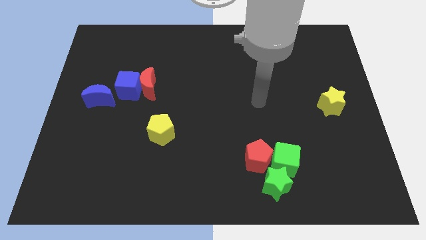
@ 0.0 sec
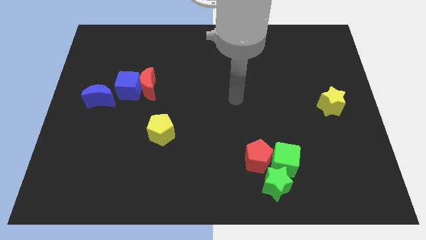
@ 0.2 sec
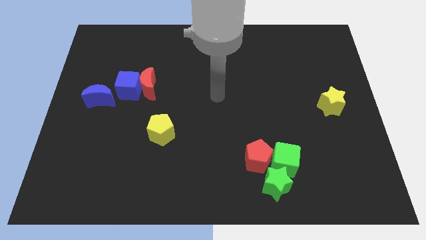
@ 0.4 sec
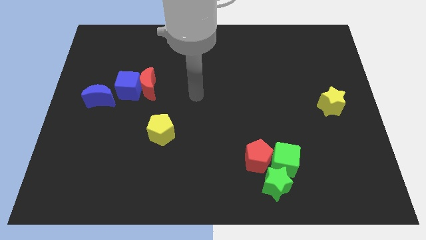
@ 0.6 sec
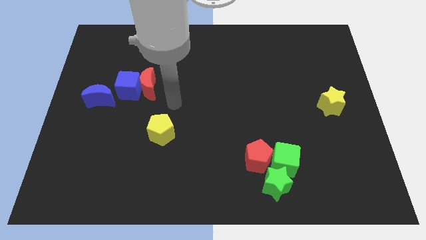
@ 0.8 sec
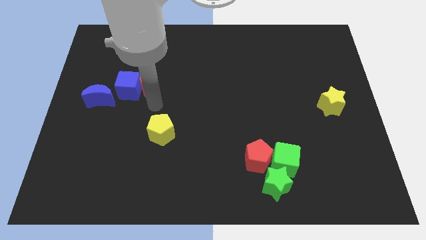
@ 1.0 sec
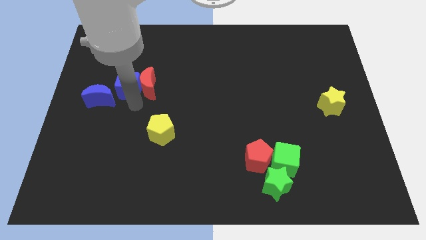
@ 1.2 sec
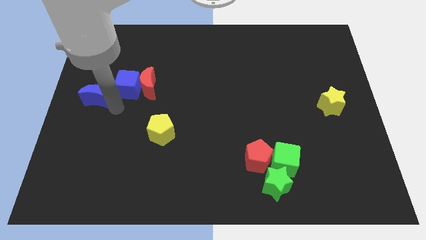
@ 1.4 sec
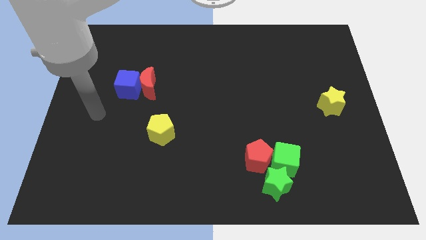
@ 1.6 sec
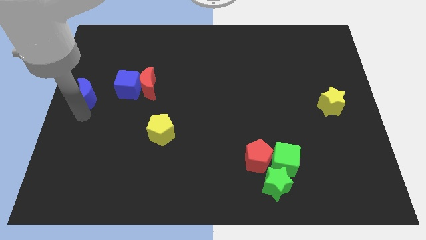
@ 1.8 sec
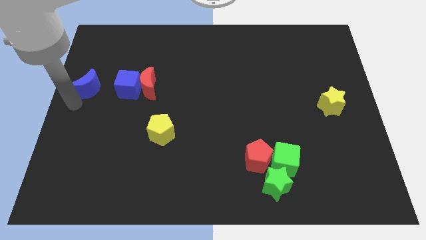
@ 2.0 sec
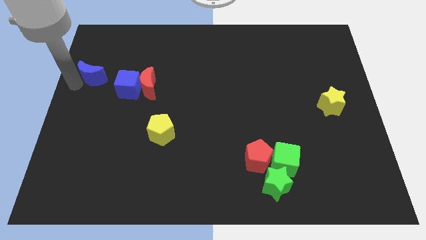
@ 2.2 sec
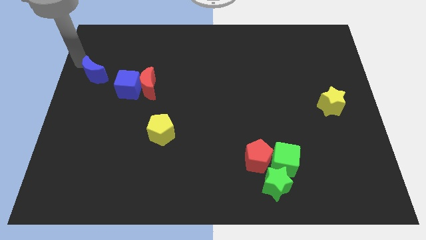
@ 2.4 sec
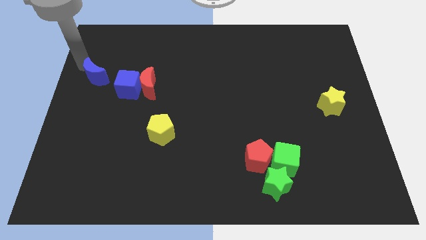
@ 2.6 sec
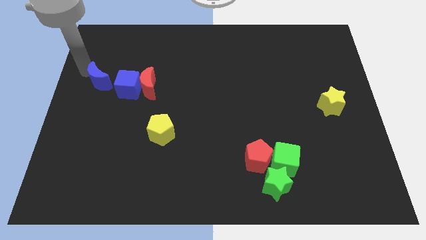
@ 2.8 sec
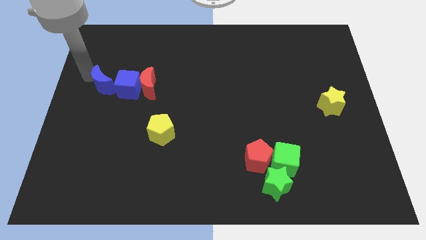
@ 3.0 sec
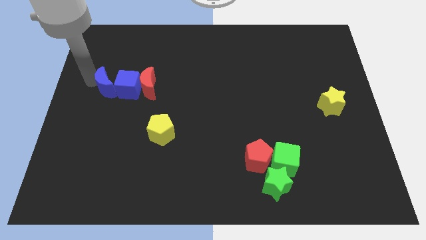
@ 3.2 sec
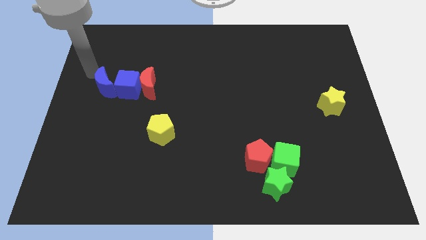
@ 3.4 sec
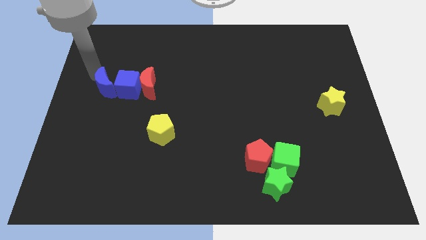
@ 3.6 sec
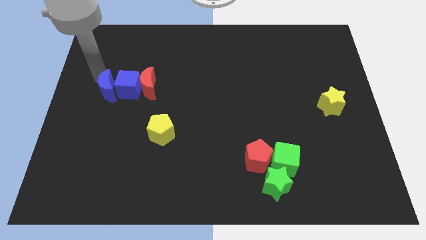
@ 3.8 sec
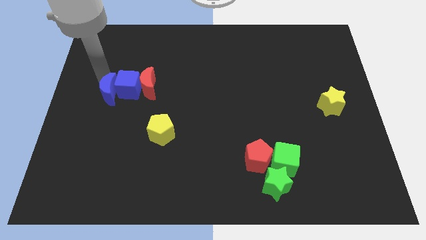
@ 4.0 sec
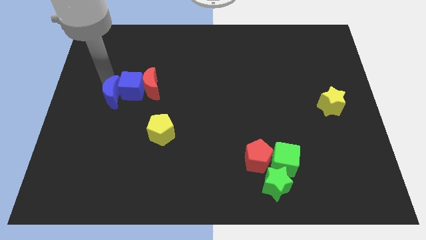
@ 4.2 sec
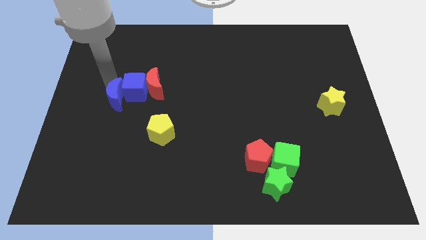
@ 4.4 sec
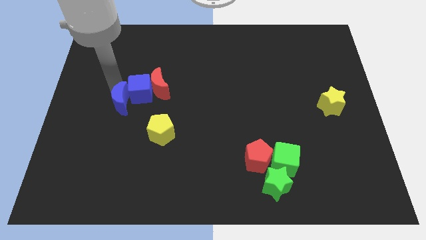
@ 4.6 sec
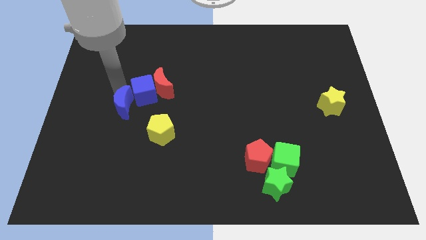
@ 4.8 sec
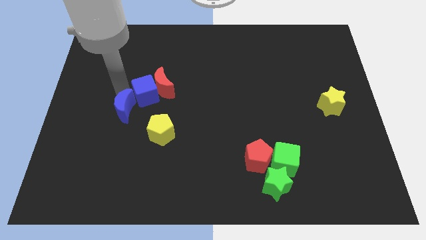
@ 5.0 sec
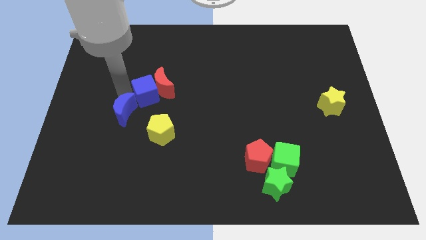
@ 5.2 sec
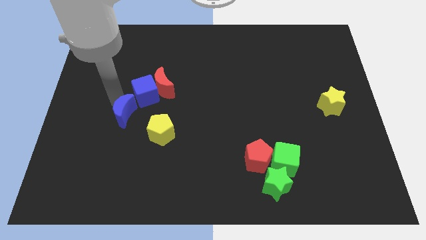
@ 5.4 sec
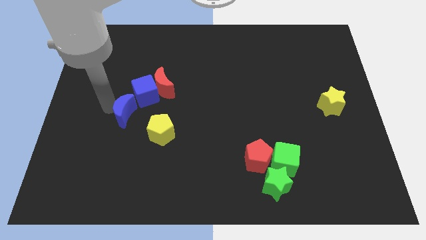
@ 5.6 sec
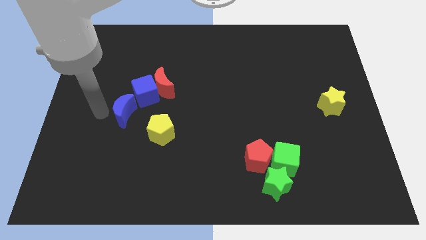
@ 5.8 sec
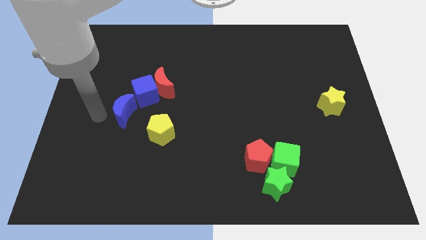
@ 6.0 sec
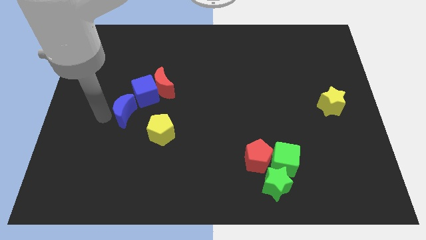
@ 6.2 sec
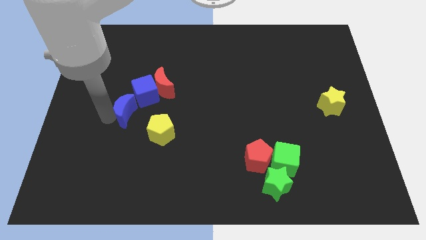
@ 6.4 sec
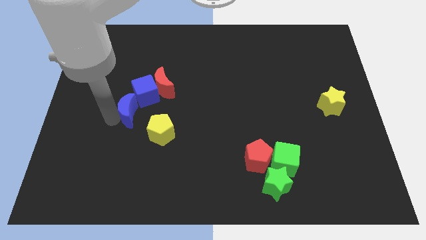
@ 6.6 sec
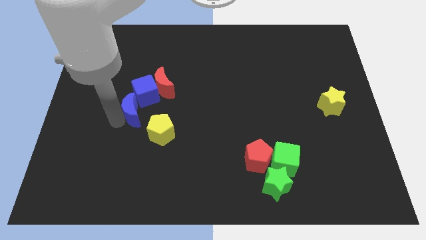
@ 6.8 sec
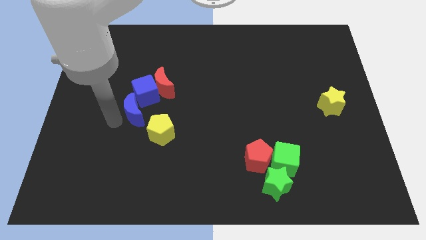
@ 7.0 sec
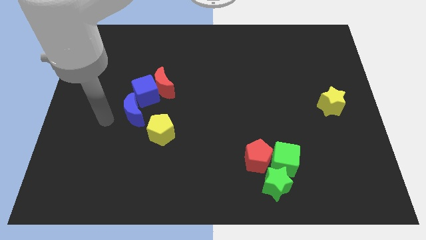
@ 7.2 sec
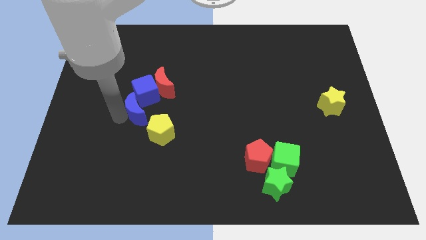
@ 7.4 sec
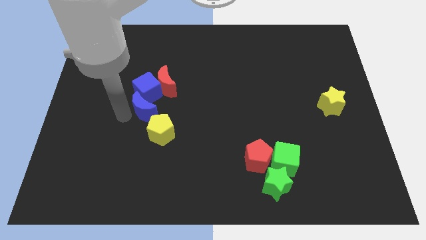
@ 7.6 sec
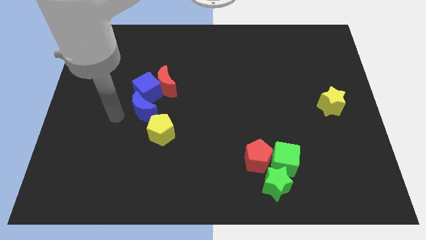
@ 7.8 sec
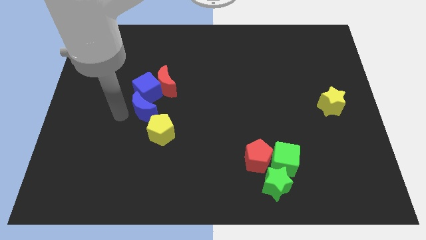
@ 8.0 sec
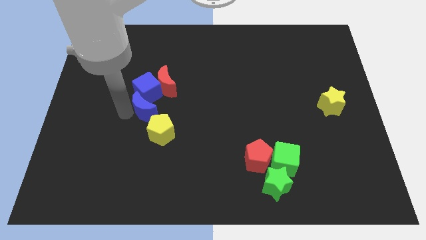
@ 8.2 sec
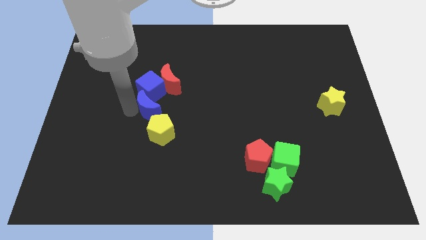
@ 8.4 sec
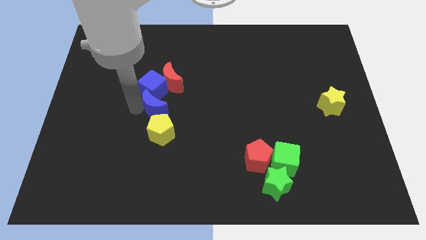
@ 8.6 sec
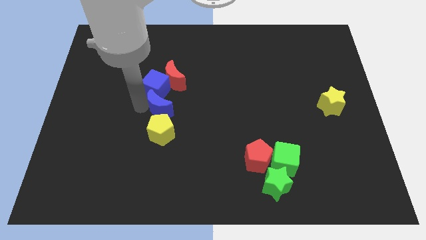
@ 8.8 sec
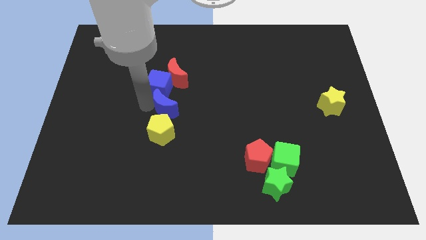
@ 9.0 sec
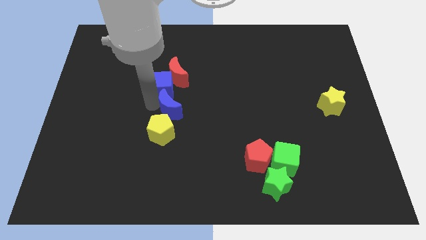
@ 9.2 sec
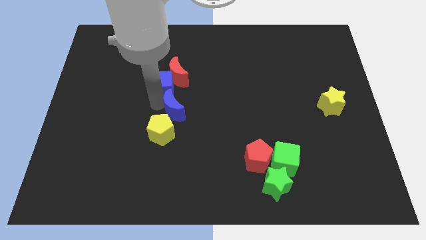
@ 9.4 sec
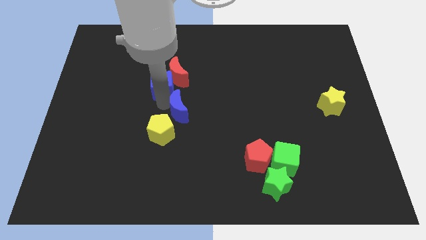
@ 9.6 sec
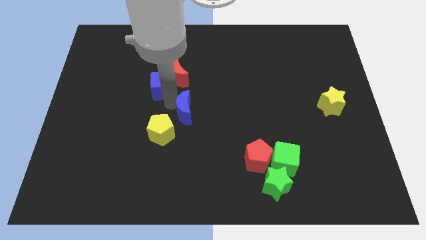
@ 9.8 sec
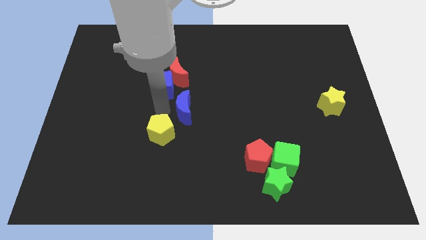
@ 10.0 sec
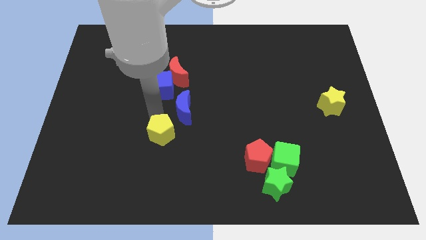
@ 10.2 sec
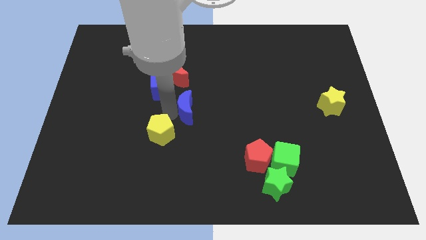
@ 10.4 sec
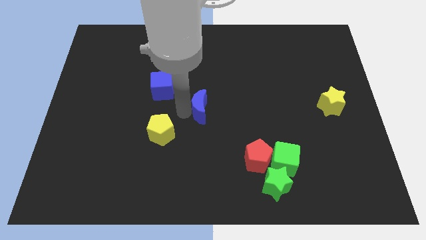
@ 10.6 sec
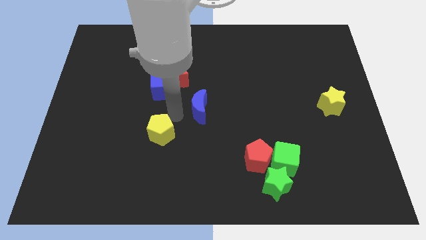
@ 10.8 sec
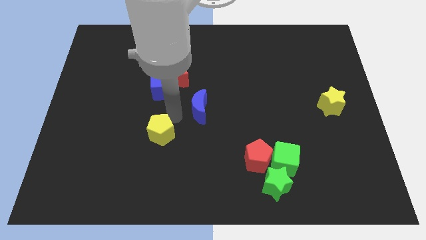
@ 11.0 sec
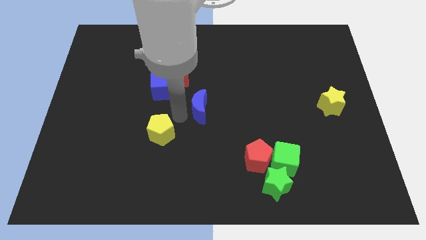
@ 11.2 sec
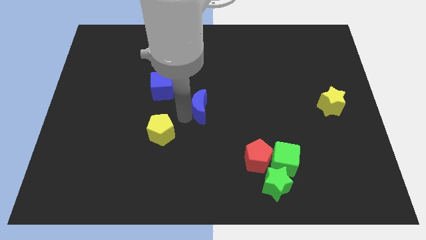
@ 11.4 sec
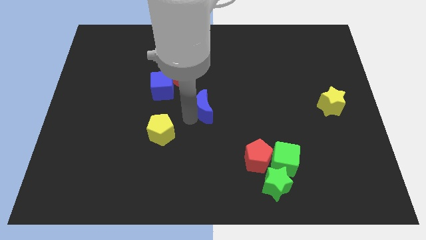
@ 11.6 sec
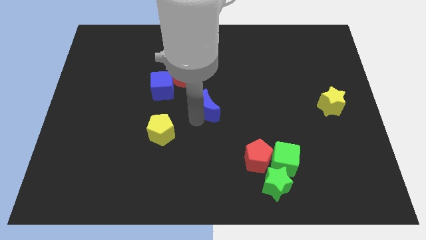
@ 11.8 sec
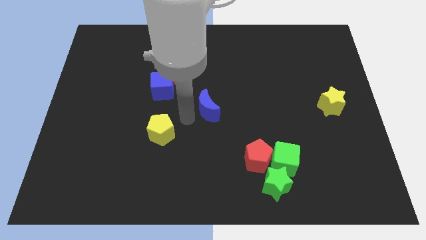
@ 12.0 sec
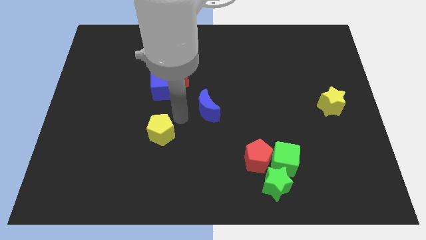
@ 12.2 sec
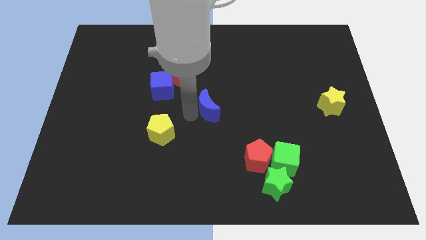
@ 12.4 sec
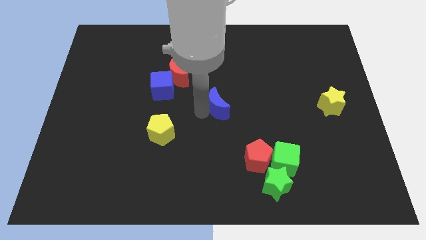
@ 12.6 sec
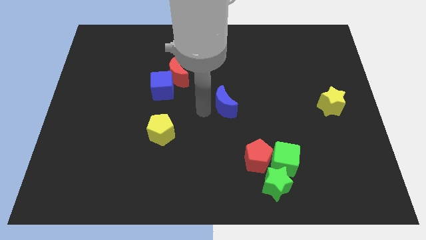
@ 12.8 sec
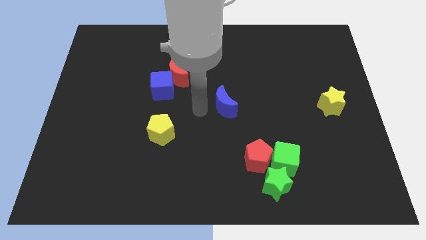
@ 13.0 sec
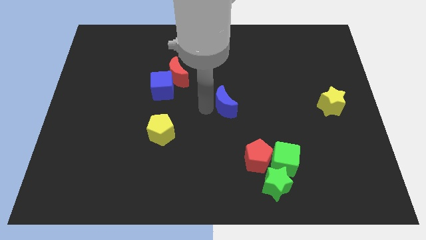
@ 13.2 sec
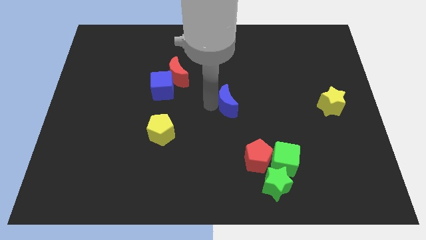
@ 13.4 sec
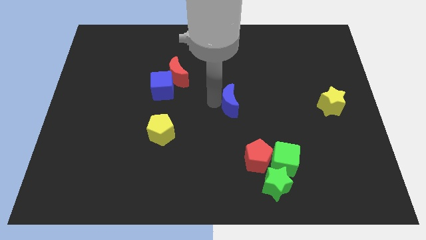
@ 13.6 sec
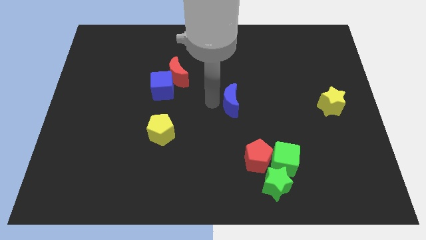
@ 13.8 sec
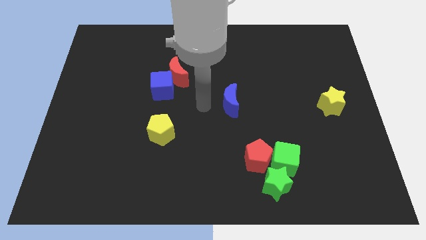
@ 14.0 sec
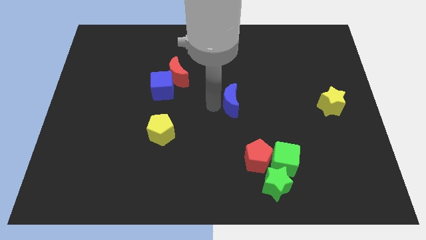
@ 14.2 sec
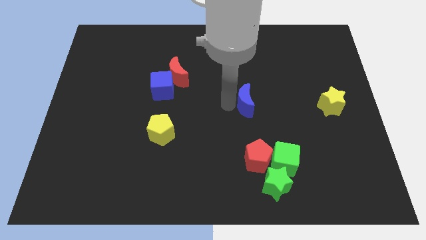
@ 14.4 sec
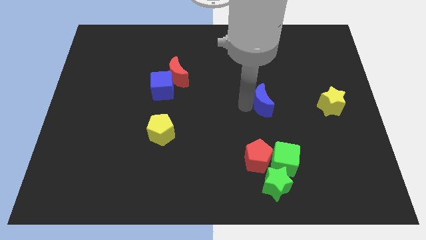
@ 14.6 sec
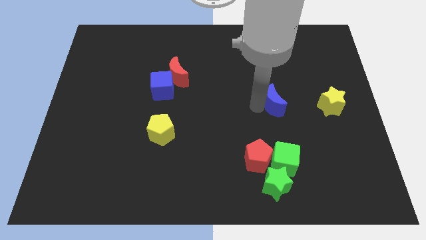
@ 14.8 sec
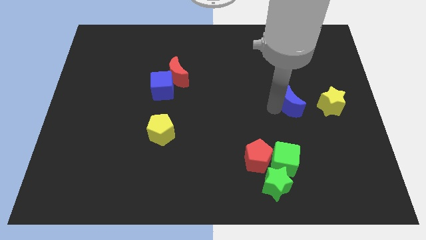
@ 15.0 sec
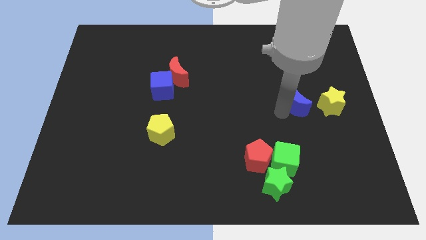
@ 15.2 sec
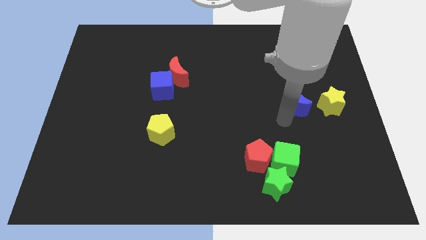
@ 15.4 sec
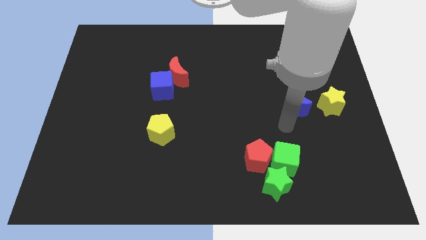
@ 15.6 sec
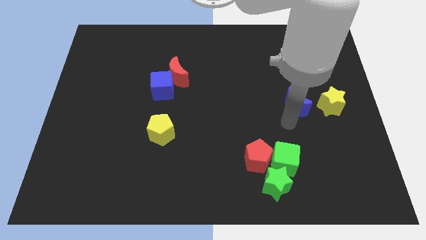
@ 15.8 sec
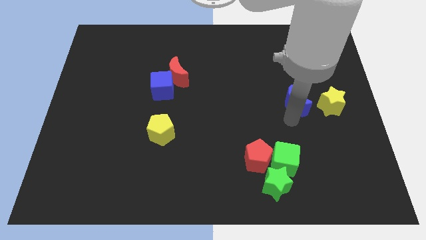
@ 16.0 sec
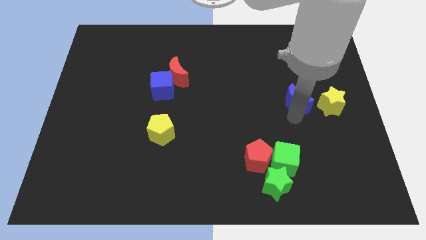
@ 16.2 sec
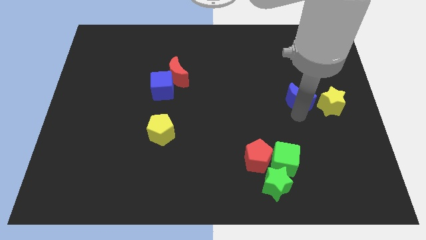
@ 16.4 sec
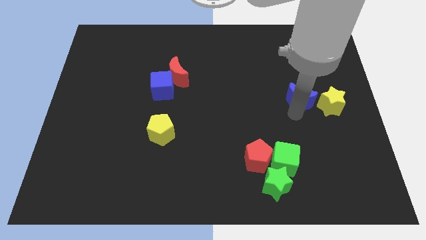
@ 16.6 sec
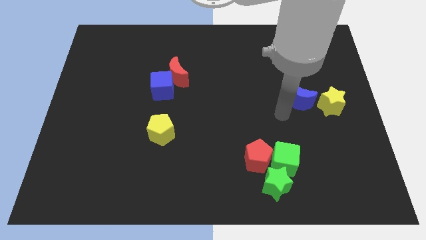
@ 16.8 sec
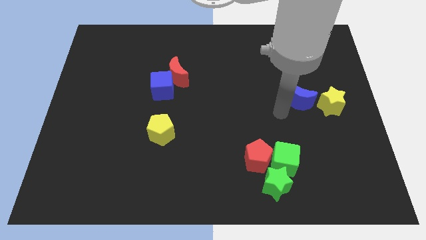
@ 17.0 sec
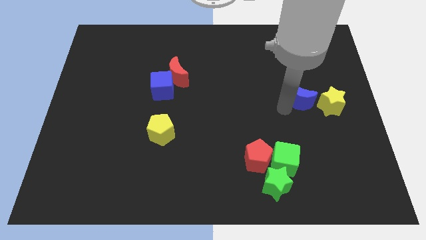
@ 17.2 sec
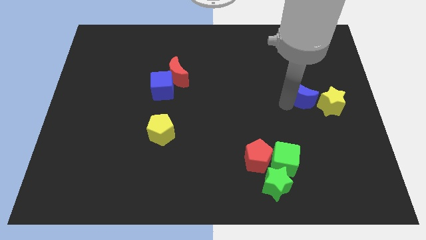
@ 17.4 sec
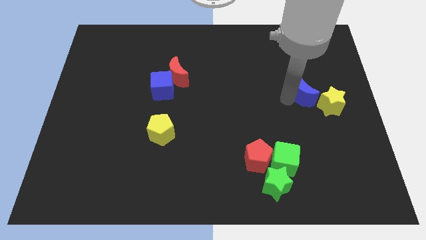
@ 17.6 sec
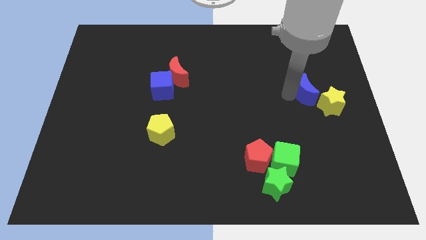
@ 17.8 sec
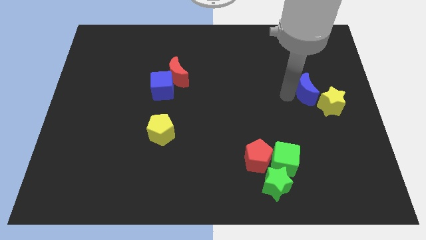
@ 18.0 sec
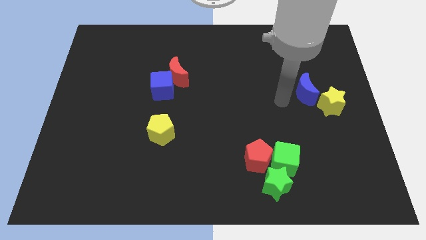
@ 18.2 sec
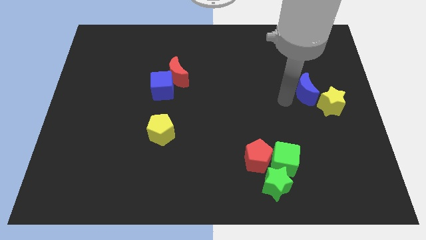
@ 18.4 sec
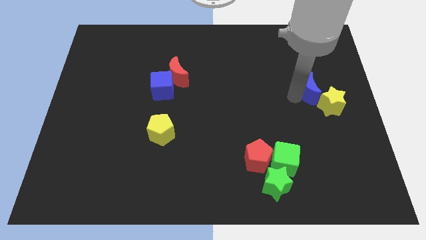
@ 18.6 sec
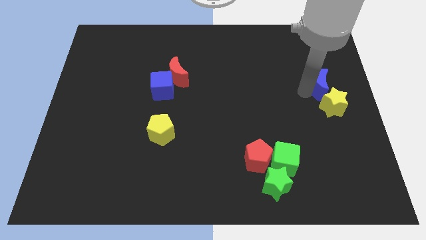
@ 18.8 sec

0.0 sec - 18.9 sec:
put the blue moon to the right side
